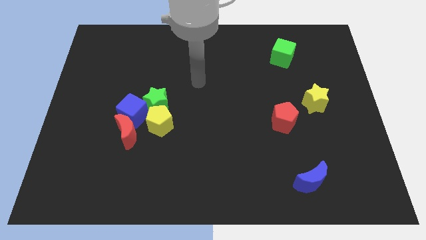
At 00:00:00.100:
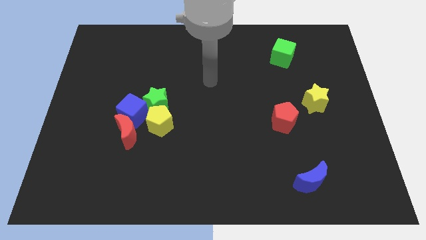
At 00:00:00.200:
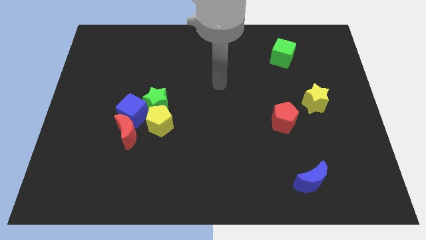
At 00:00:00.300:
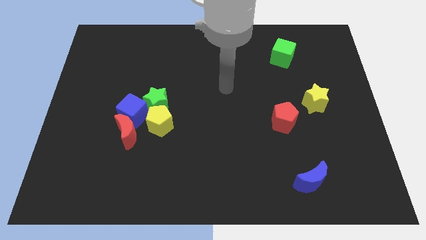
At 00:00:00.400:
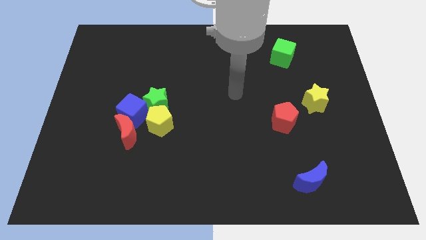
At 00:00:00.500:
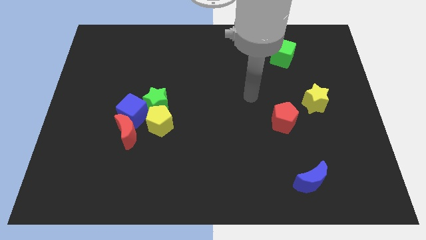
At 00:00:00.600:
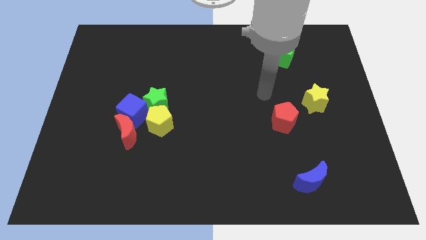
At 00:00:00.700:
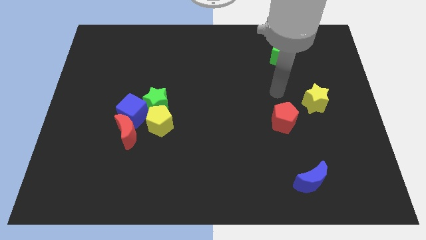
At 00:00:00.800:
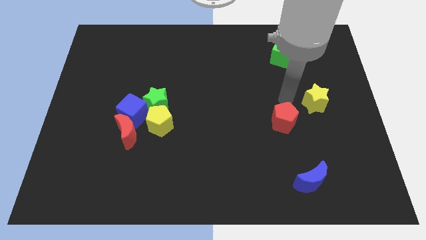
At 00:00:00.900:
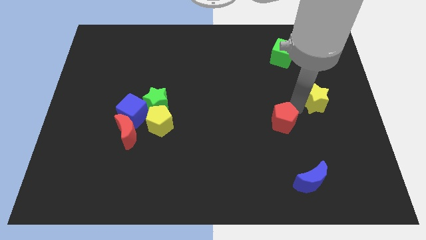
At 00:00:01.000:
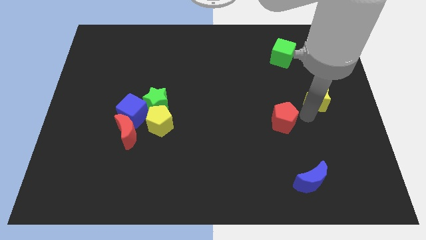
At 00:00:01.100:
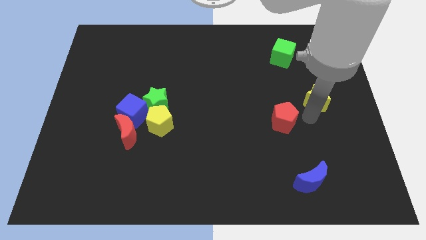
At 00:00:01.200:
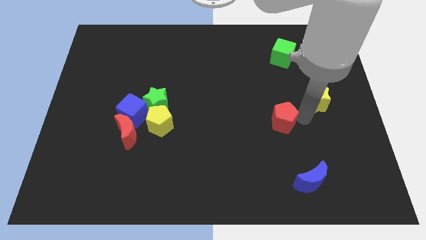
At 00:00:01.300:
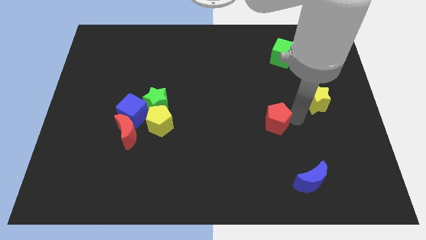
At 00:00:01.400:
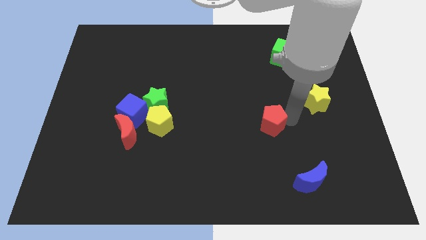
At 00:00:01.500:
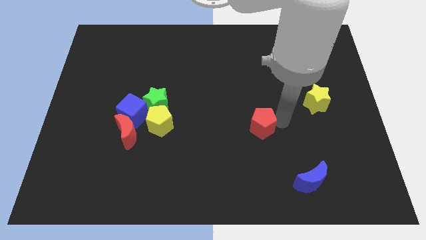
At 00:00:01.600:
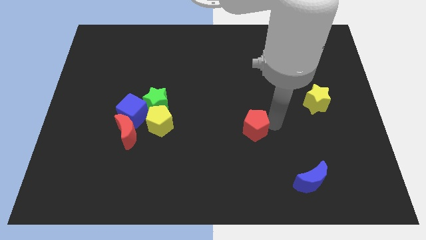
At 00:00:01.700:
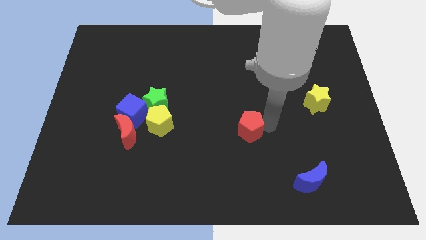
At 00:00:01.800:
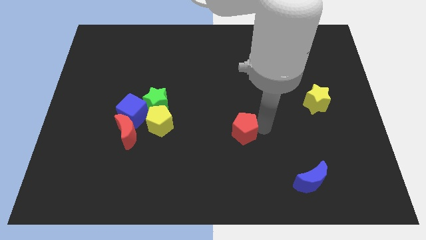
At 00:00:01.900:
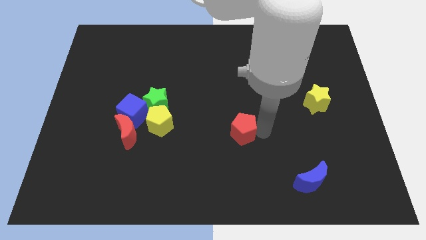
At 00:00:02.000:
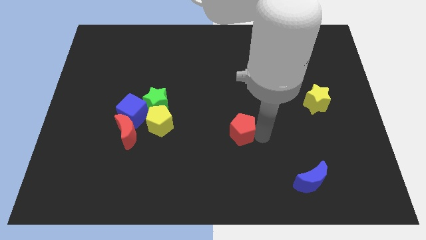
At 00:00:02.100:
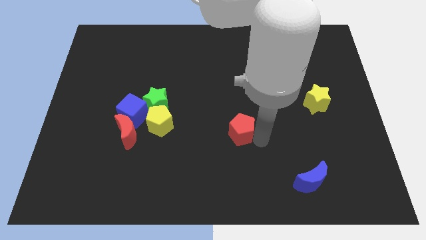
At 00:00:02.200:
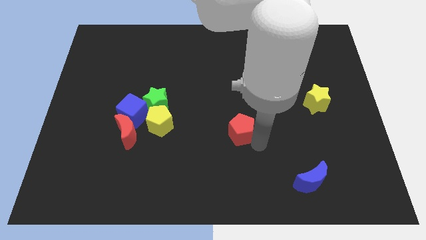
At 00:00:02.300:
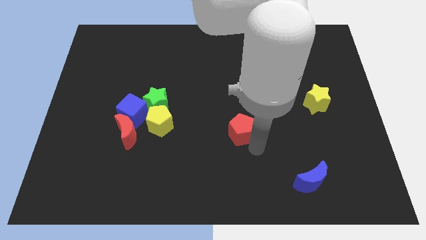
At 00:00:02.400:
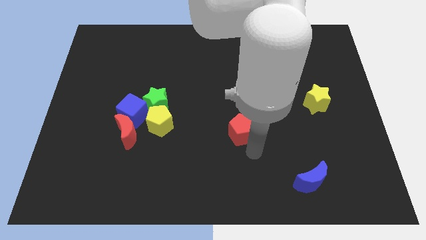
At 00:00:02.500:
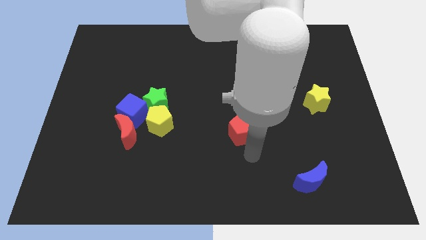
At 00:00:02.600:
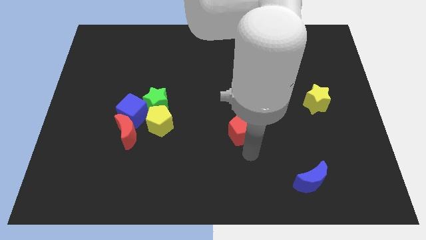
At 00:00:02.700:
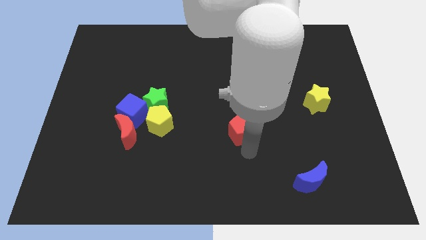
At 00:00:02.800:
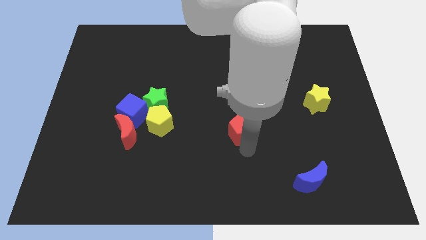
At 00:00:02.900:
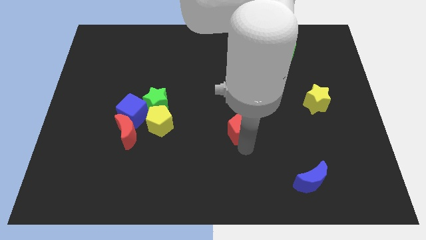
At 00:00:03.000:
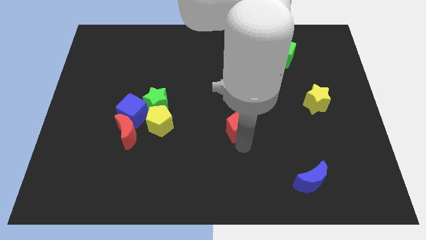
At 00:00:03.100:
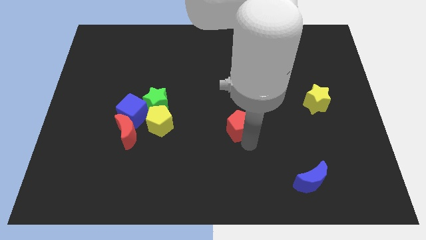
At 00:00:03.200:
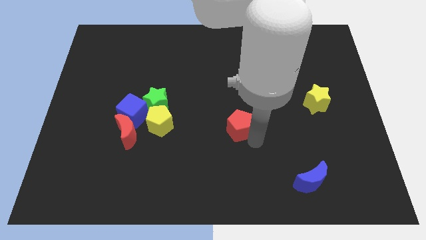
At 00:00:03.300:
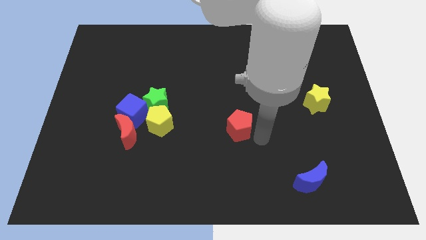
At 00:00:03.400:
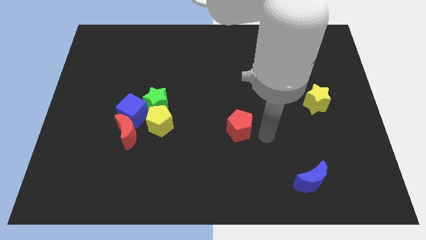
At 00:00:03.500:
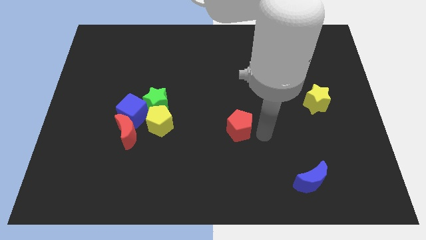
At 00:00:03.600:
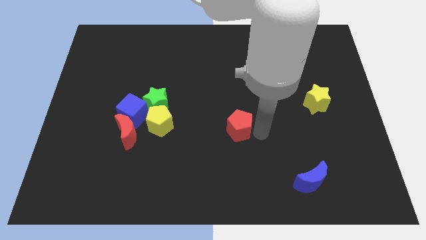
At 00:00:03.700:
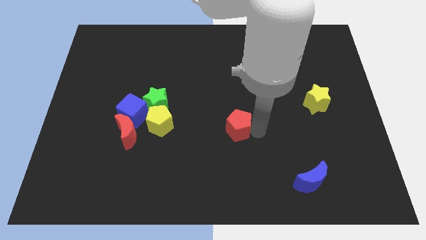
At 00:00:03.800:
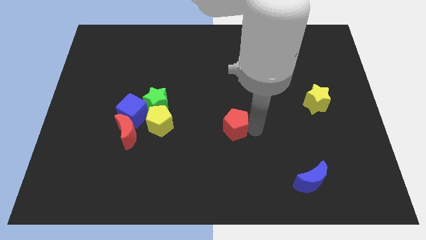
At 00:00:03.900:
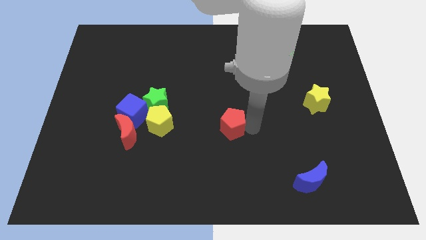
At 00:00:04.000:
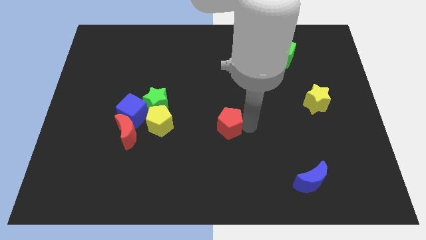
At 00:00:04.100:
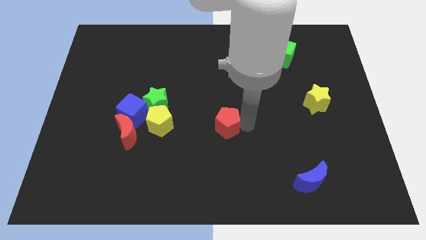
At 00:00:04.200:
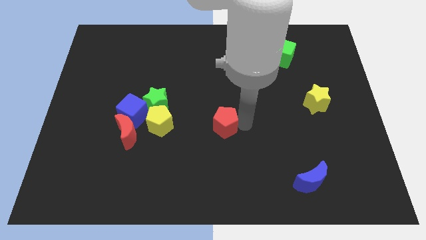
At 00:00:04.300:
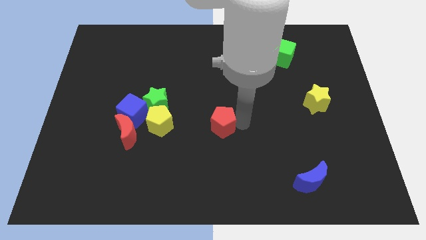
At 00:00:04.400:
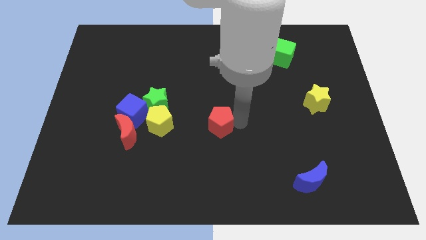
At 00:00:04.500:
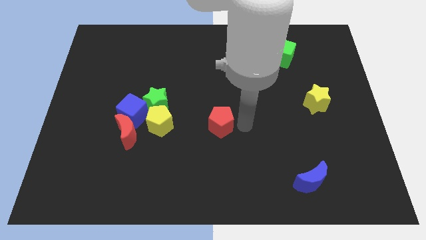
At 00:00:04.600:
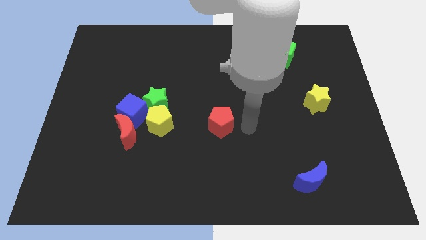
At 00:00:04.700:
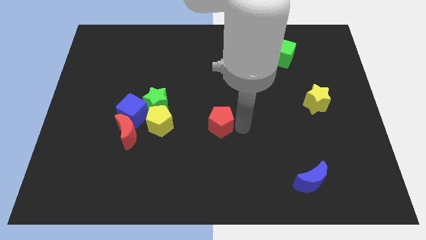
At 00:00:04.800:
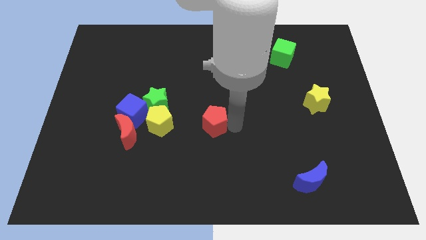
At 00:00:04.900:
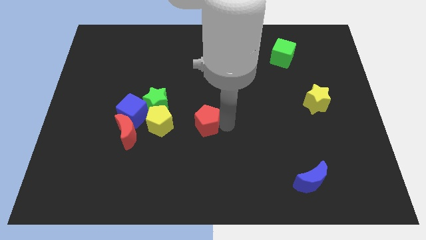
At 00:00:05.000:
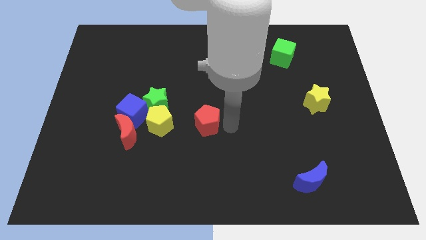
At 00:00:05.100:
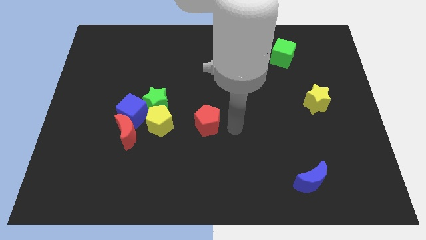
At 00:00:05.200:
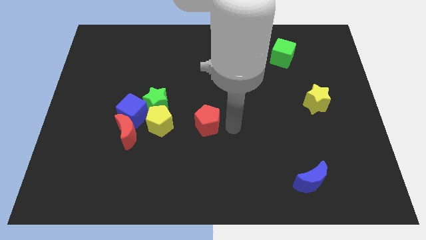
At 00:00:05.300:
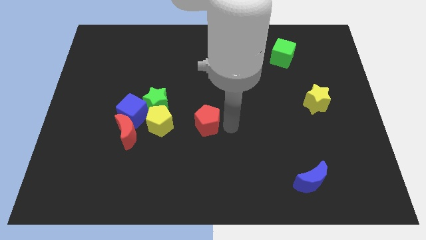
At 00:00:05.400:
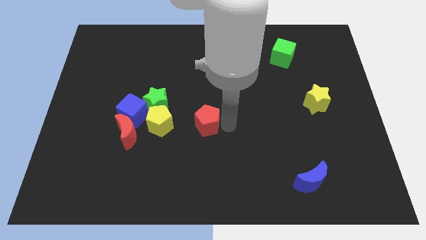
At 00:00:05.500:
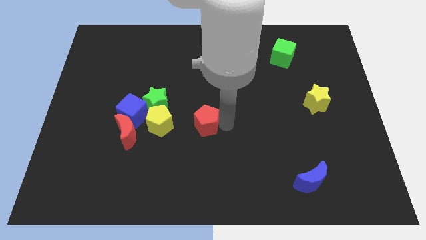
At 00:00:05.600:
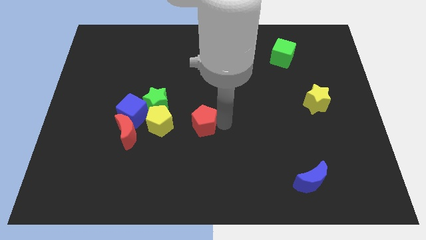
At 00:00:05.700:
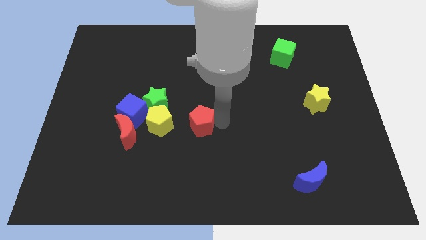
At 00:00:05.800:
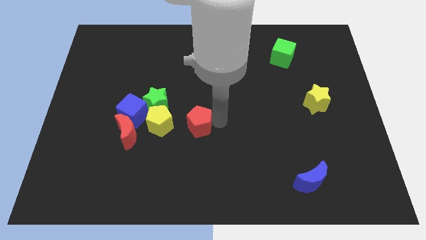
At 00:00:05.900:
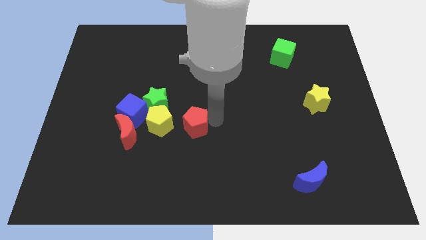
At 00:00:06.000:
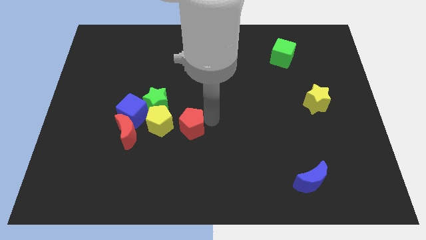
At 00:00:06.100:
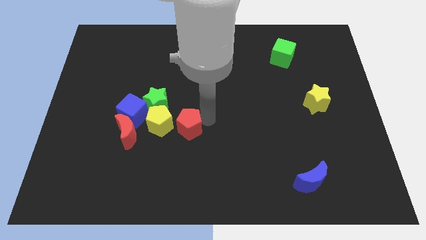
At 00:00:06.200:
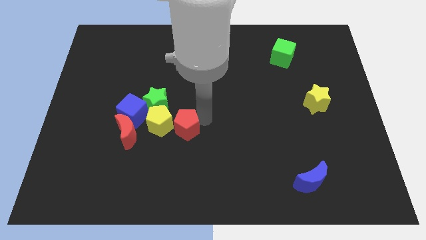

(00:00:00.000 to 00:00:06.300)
move the red pentagon to the yellow pentagon

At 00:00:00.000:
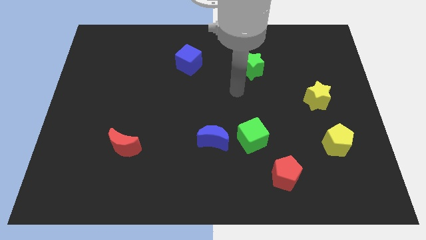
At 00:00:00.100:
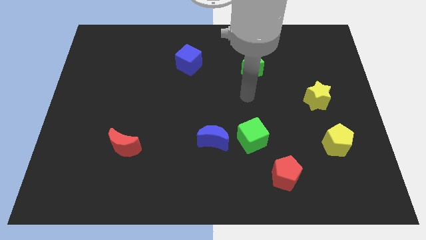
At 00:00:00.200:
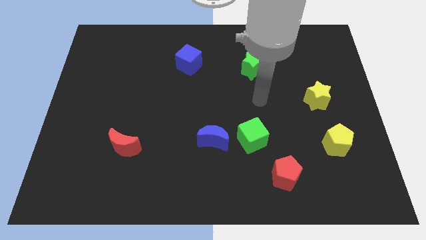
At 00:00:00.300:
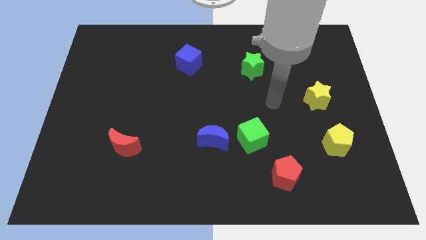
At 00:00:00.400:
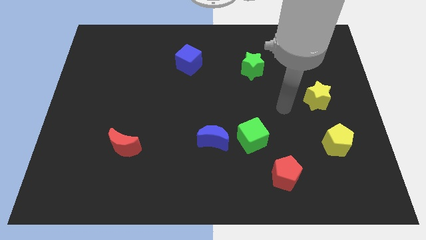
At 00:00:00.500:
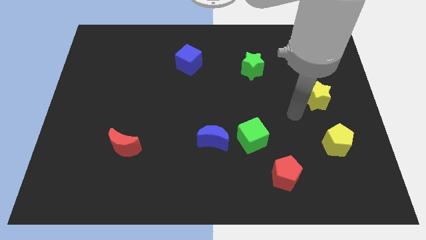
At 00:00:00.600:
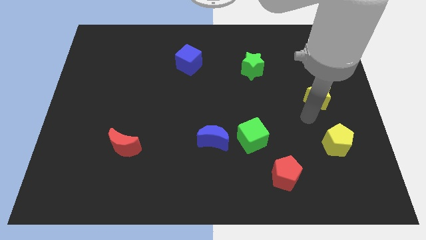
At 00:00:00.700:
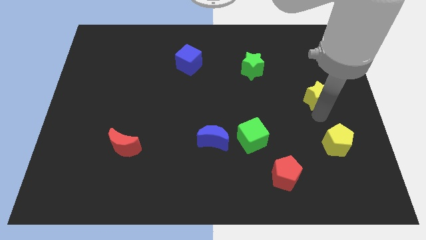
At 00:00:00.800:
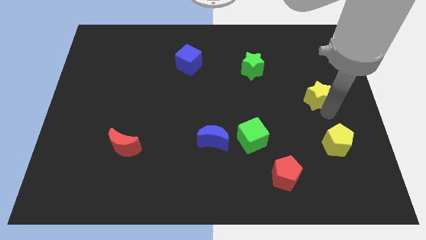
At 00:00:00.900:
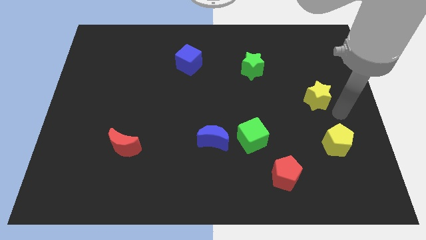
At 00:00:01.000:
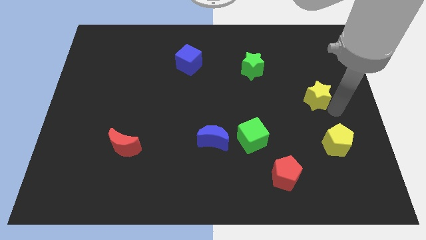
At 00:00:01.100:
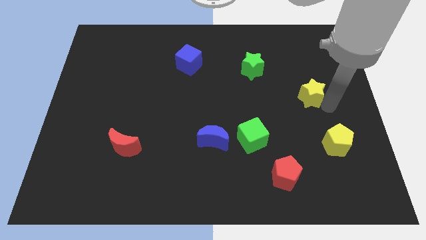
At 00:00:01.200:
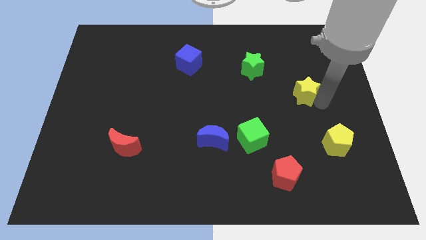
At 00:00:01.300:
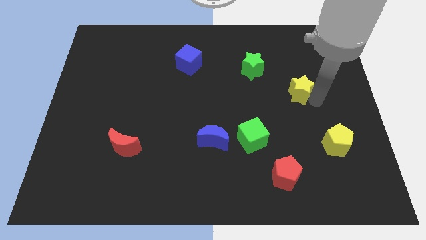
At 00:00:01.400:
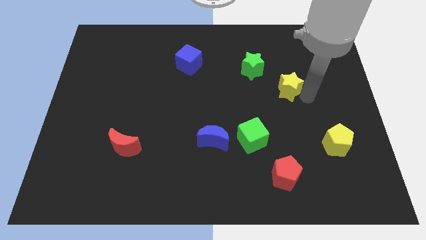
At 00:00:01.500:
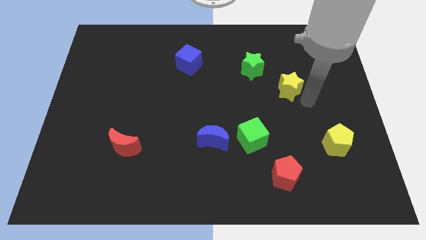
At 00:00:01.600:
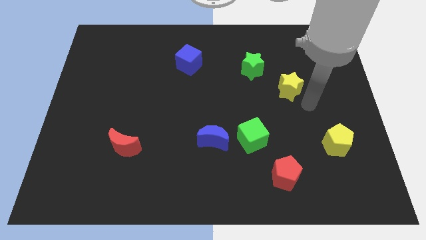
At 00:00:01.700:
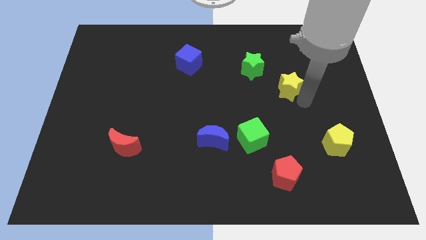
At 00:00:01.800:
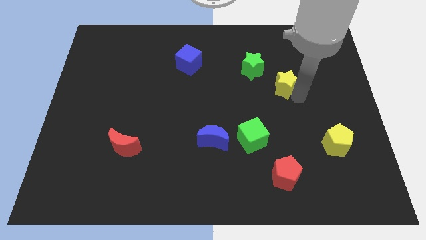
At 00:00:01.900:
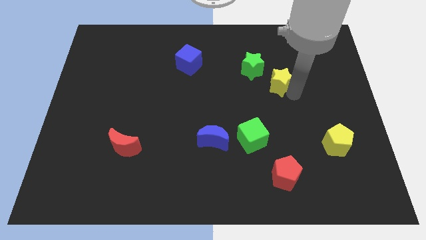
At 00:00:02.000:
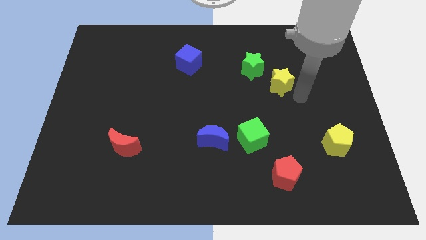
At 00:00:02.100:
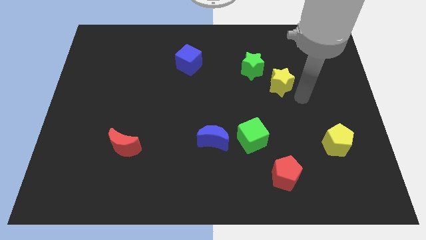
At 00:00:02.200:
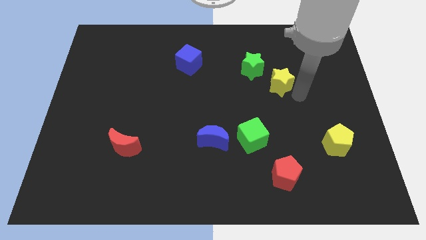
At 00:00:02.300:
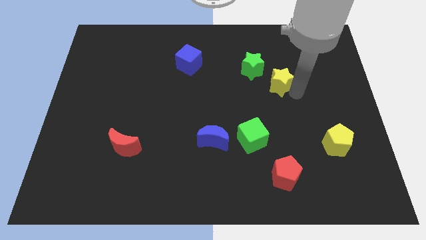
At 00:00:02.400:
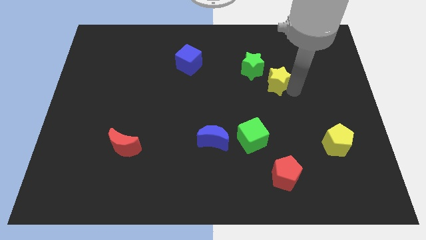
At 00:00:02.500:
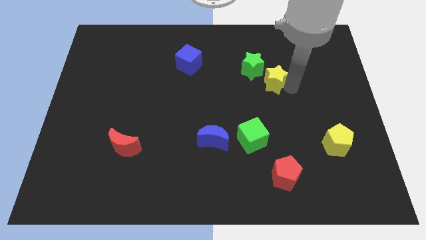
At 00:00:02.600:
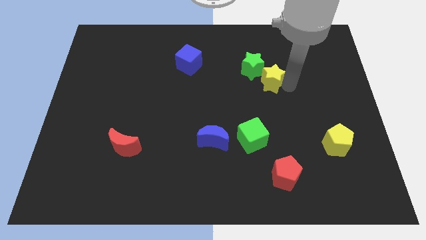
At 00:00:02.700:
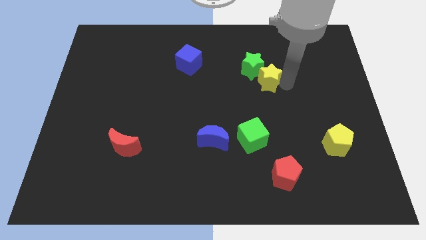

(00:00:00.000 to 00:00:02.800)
put the yellow star towards the green star
